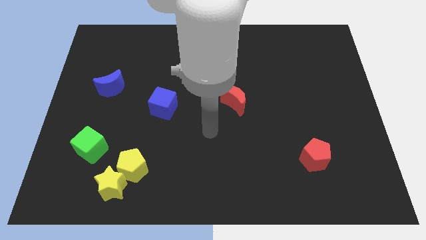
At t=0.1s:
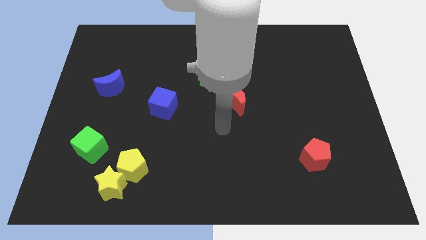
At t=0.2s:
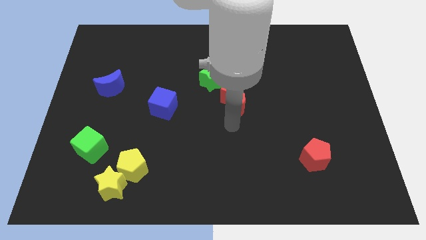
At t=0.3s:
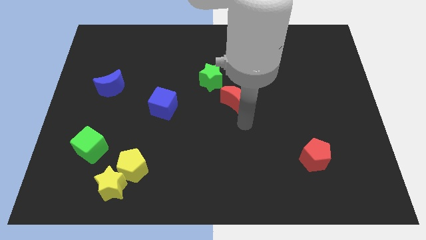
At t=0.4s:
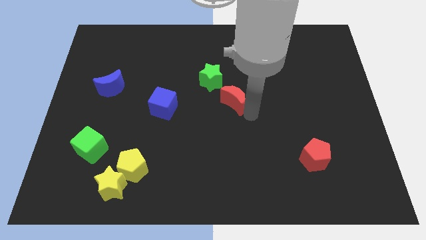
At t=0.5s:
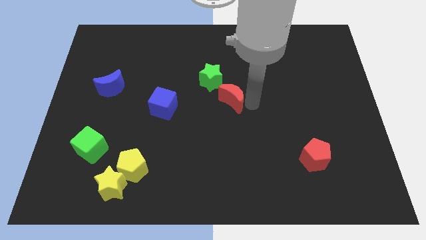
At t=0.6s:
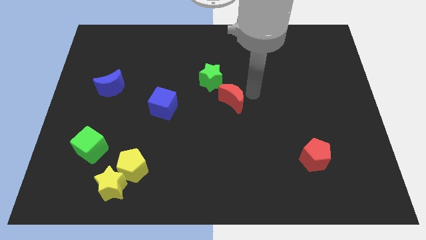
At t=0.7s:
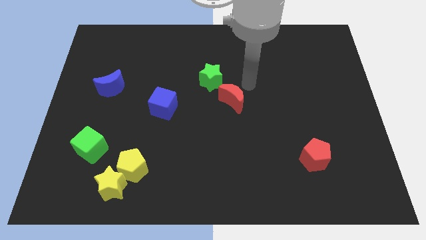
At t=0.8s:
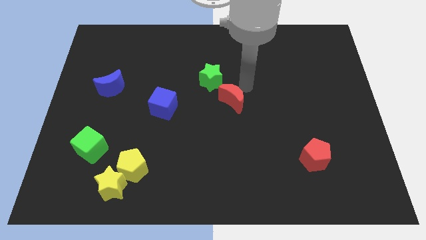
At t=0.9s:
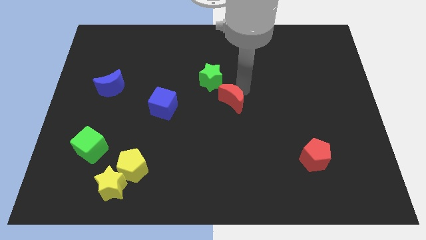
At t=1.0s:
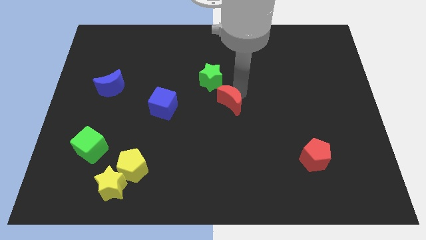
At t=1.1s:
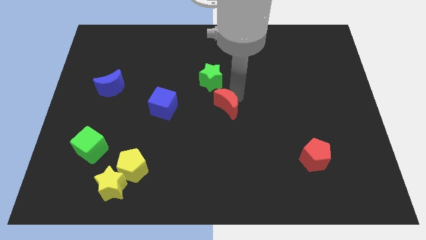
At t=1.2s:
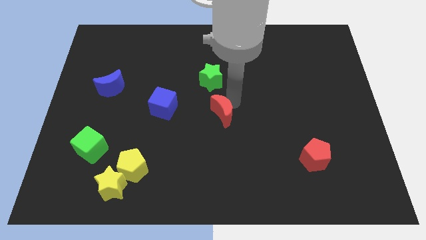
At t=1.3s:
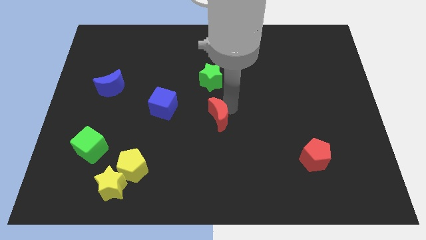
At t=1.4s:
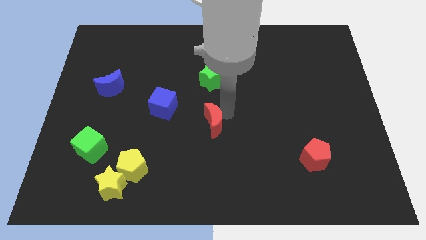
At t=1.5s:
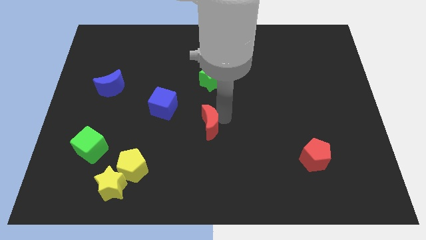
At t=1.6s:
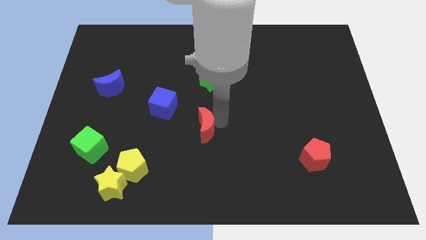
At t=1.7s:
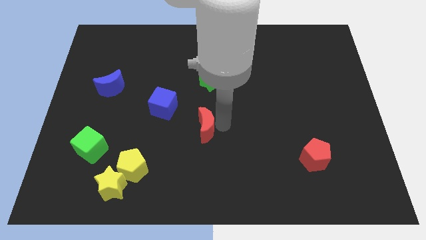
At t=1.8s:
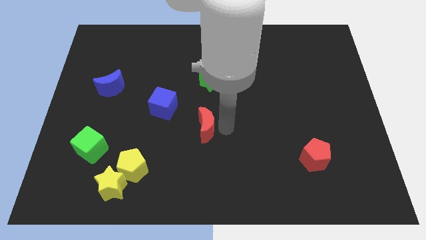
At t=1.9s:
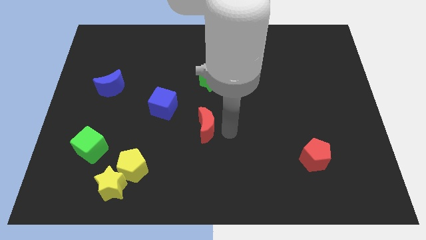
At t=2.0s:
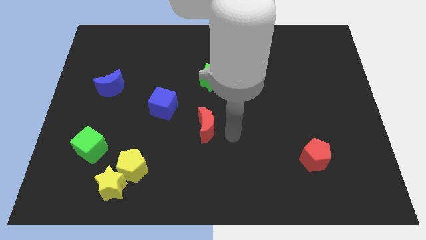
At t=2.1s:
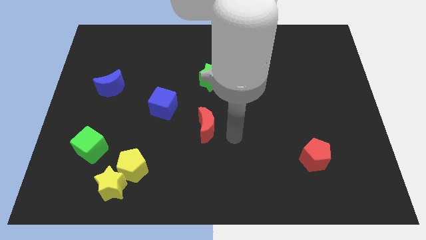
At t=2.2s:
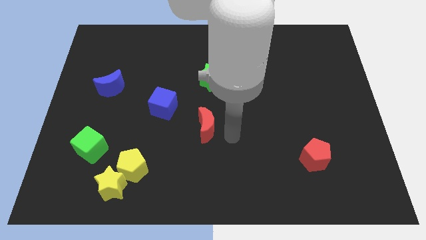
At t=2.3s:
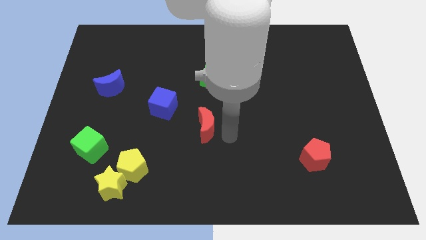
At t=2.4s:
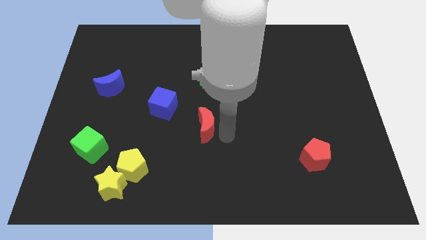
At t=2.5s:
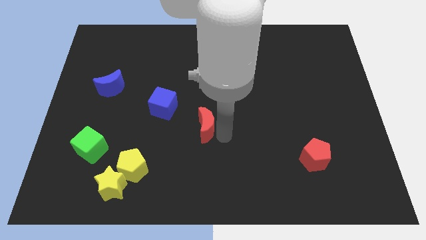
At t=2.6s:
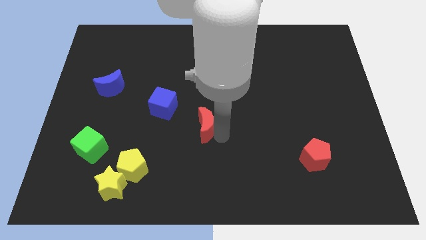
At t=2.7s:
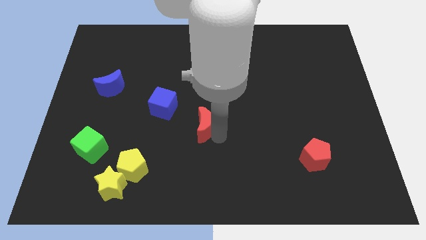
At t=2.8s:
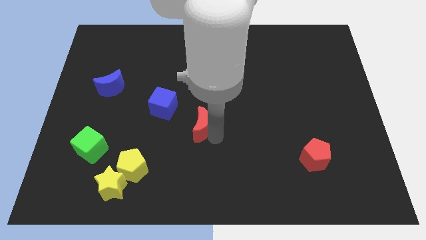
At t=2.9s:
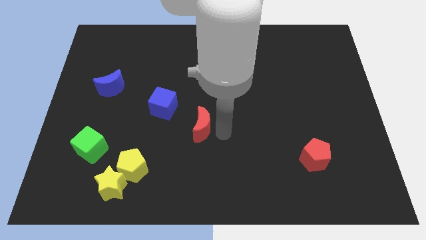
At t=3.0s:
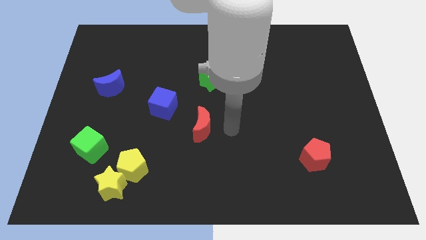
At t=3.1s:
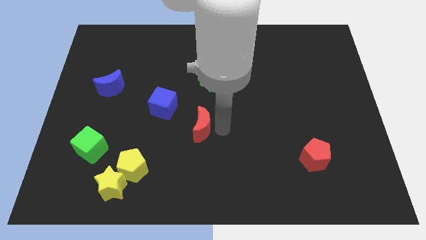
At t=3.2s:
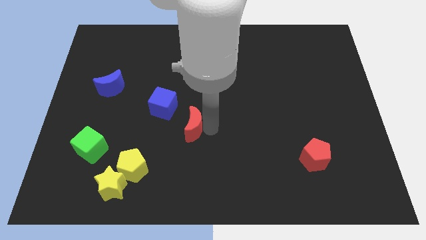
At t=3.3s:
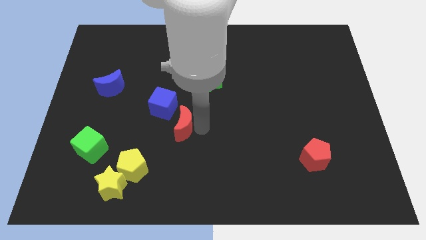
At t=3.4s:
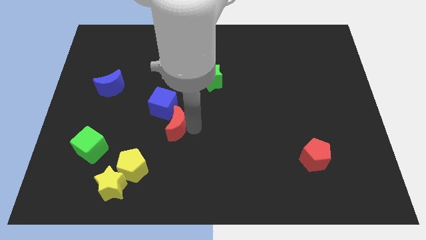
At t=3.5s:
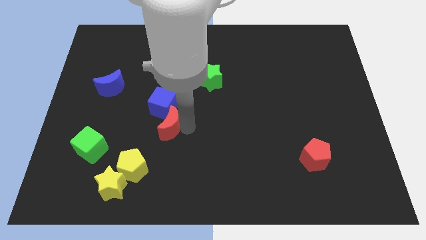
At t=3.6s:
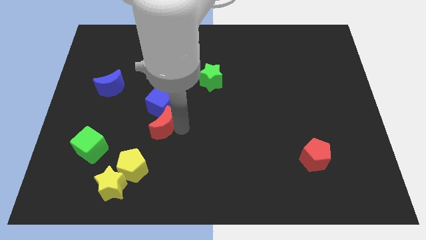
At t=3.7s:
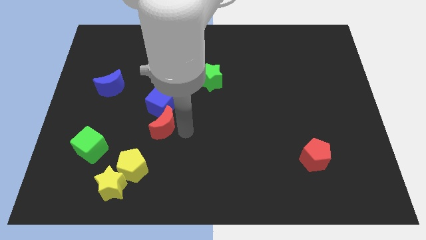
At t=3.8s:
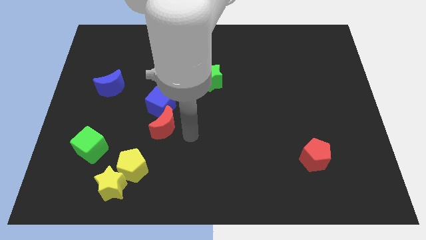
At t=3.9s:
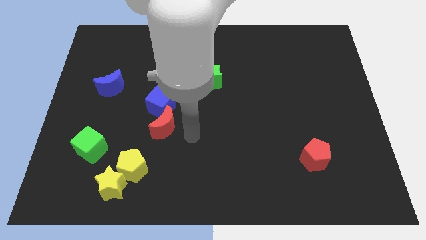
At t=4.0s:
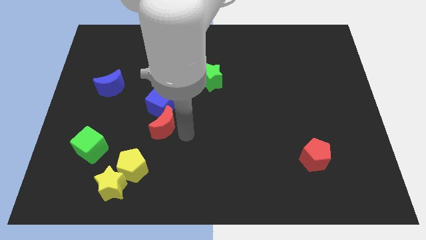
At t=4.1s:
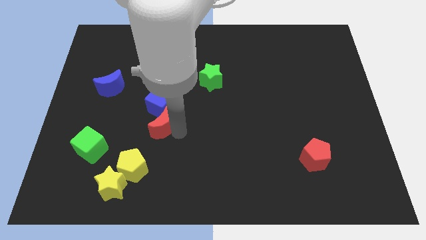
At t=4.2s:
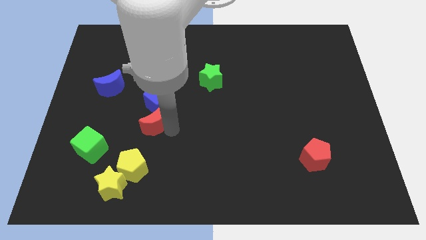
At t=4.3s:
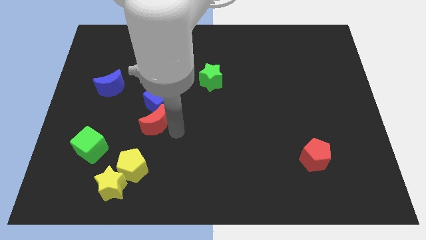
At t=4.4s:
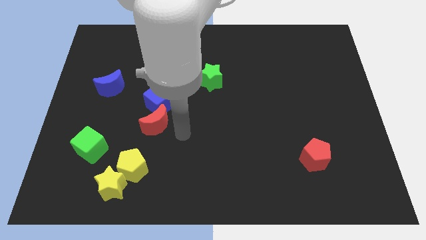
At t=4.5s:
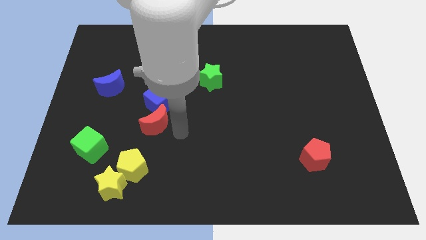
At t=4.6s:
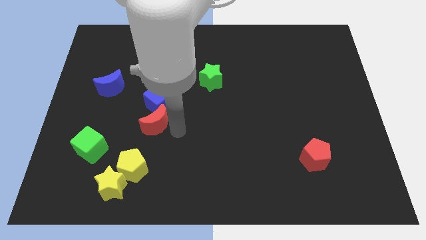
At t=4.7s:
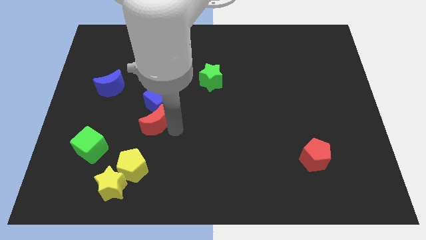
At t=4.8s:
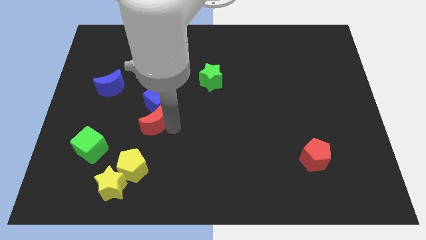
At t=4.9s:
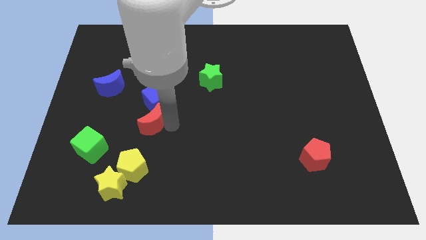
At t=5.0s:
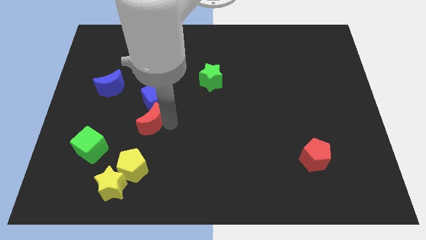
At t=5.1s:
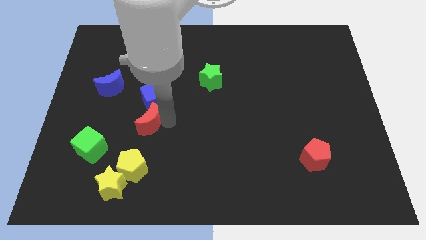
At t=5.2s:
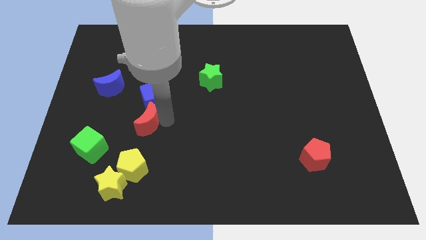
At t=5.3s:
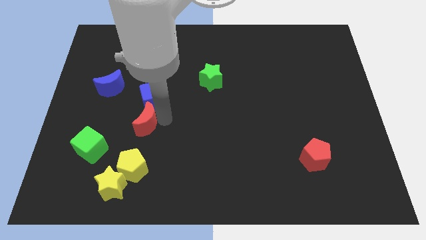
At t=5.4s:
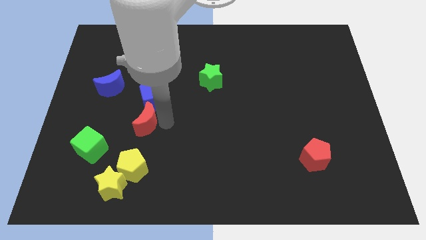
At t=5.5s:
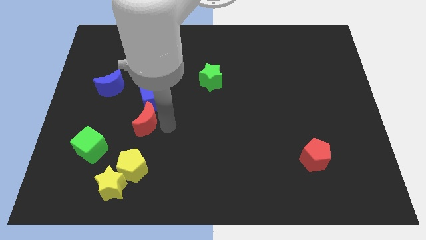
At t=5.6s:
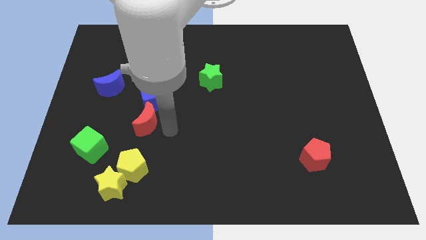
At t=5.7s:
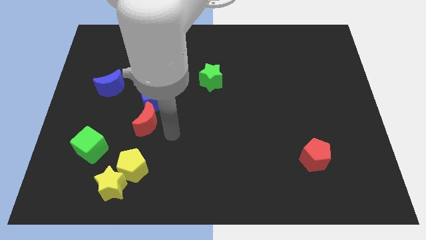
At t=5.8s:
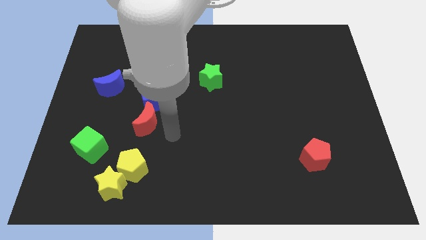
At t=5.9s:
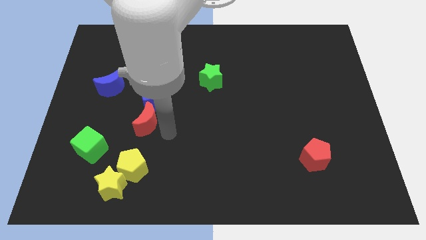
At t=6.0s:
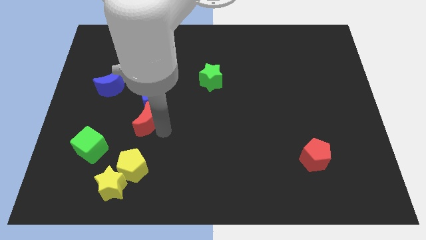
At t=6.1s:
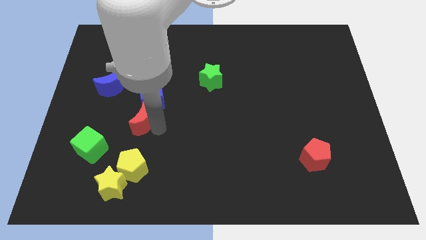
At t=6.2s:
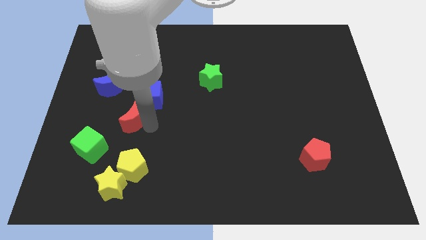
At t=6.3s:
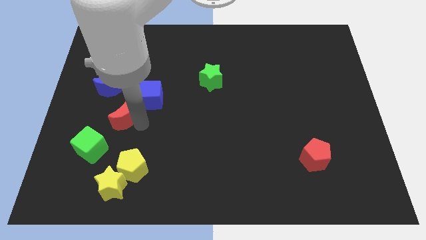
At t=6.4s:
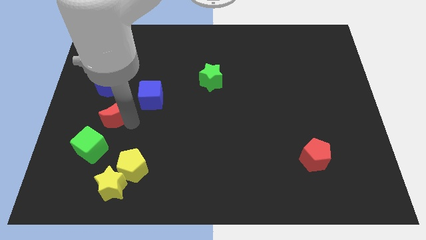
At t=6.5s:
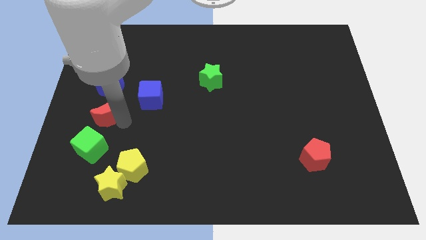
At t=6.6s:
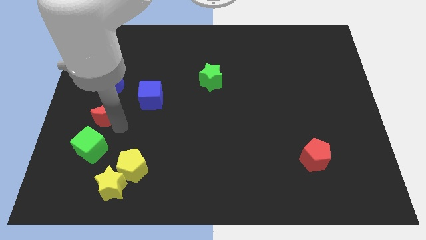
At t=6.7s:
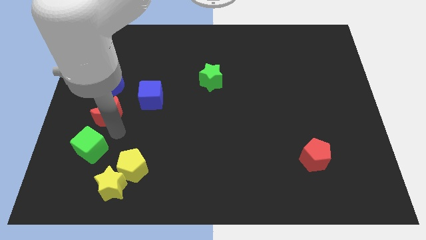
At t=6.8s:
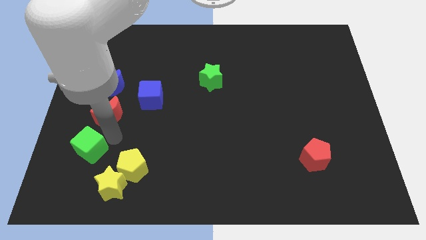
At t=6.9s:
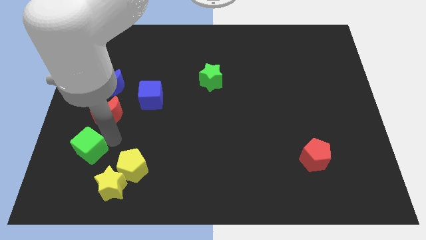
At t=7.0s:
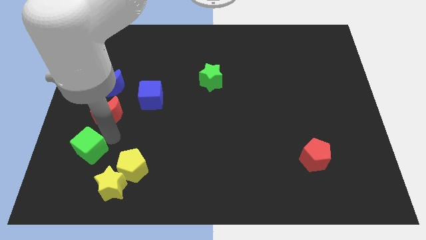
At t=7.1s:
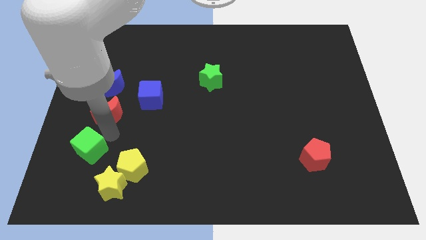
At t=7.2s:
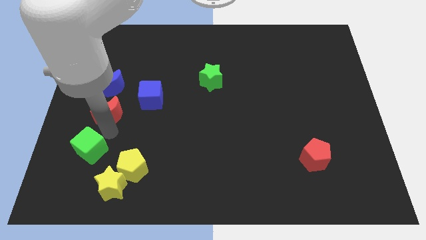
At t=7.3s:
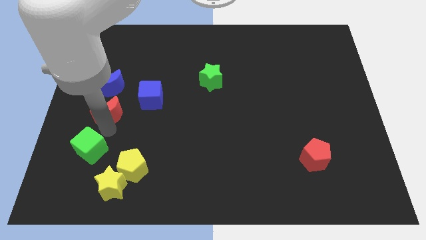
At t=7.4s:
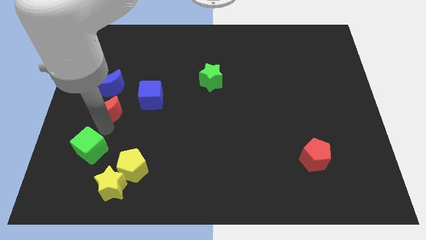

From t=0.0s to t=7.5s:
push the red moon to the left of the blue cube
